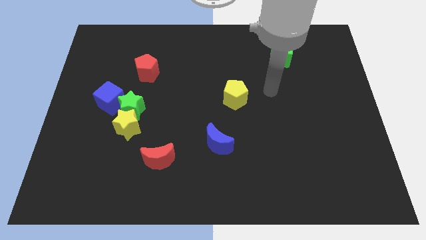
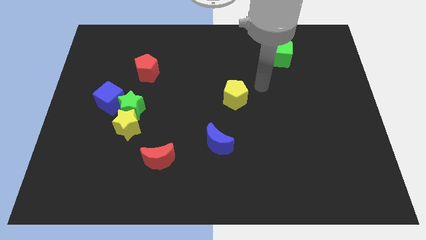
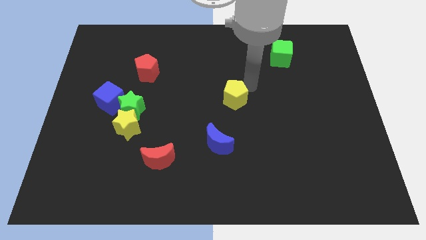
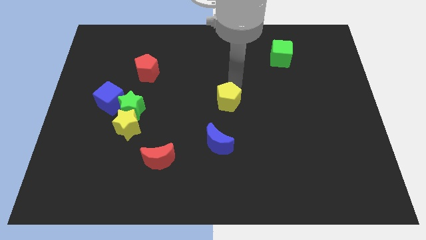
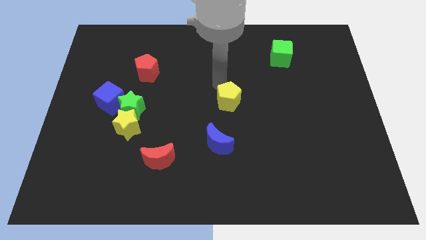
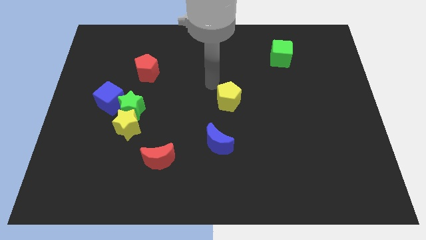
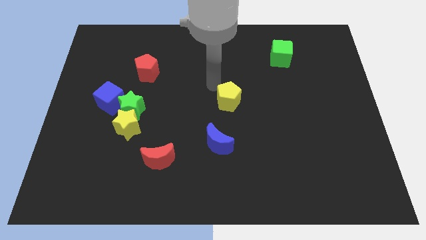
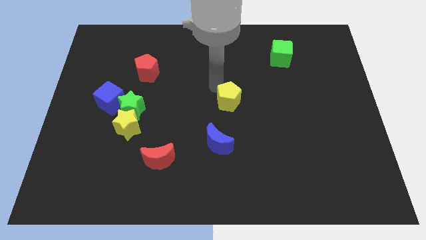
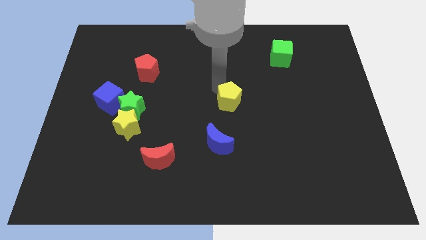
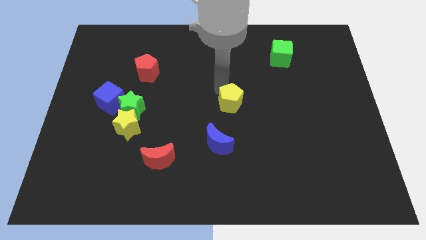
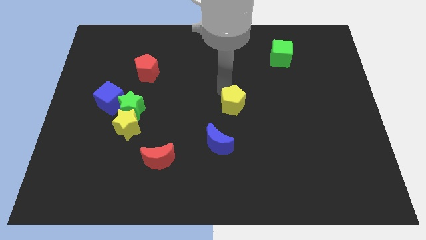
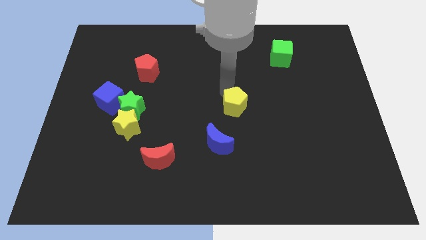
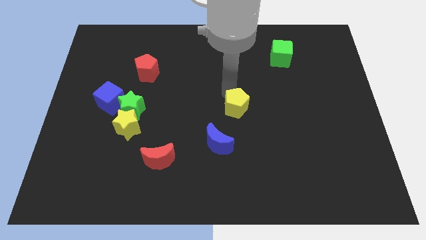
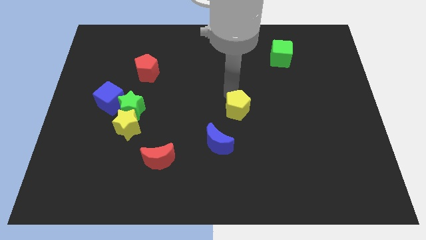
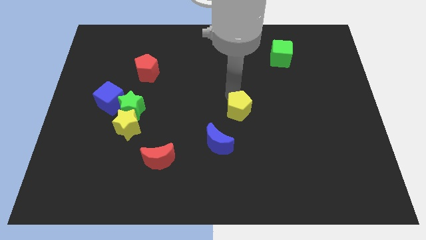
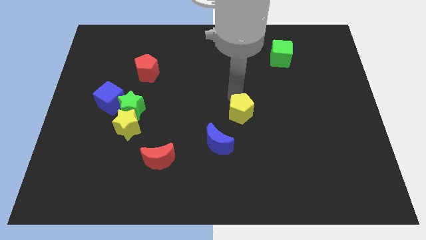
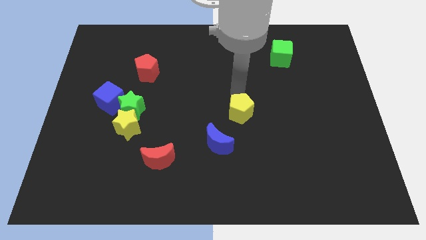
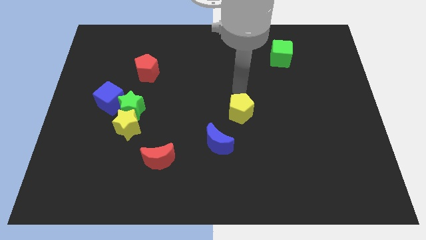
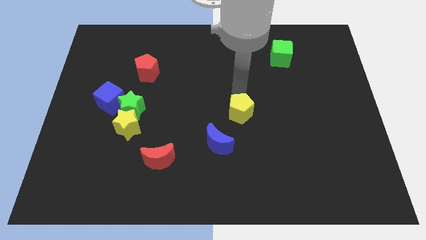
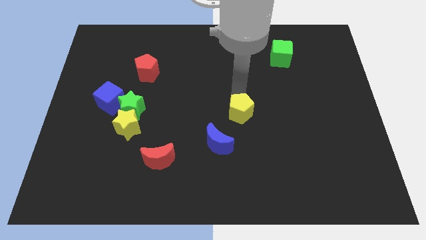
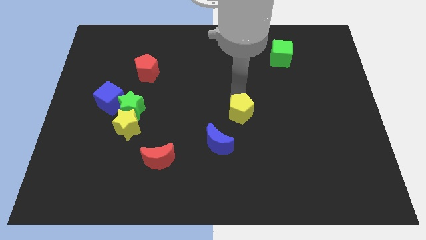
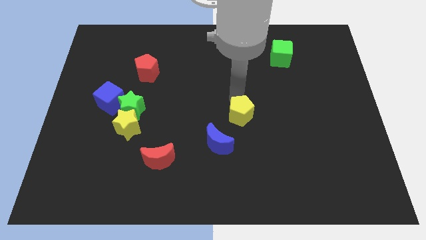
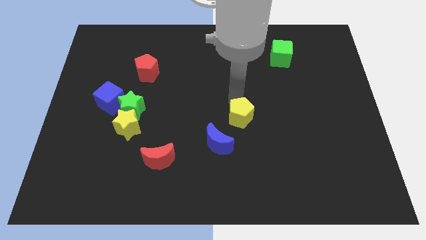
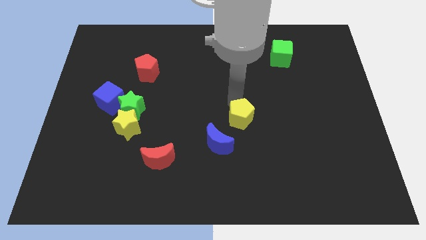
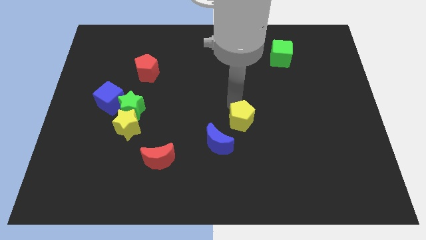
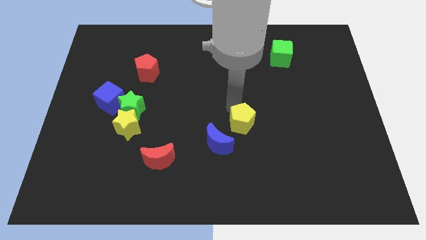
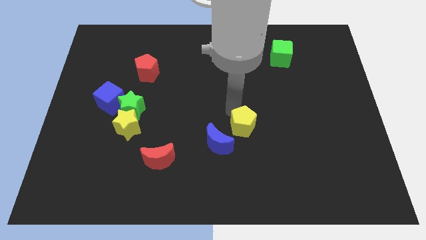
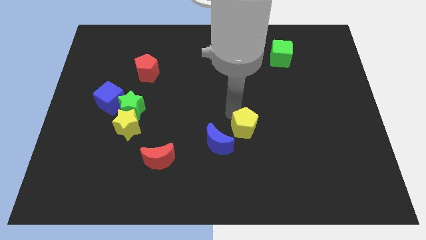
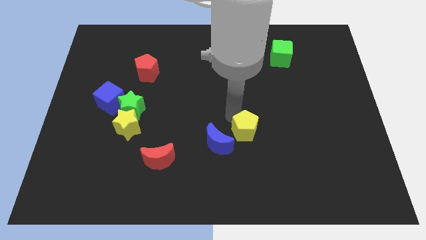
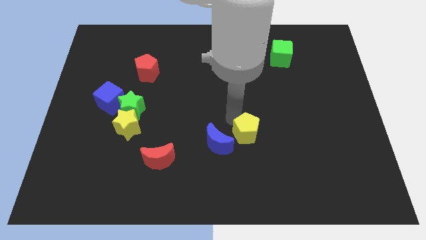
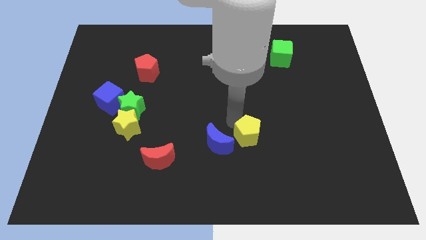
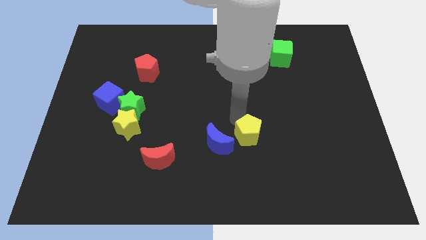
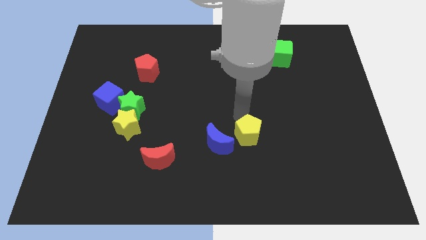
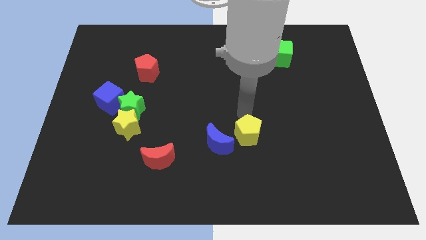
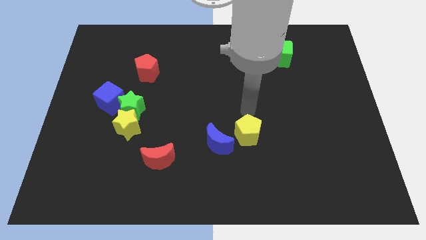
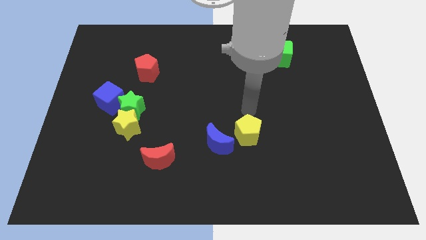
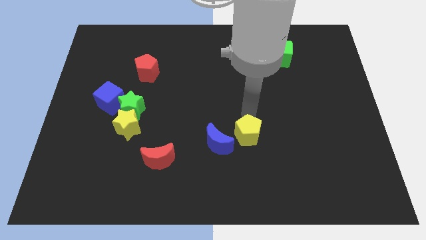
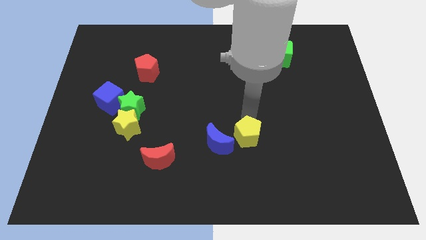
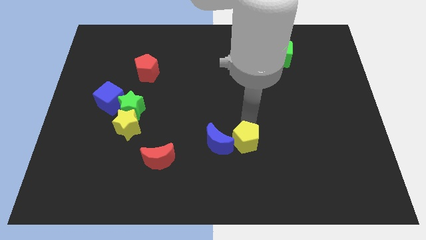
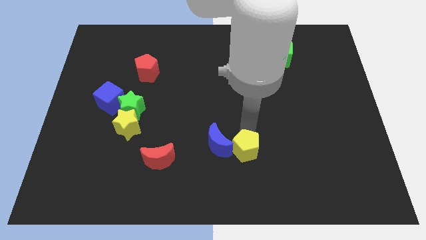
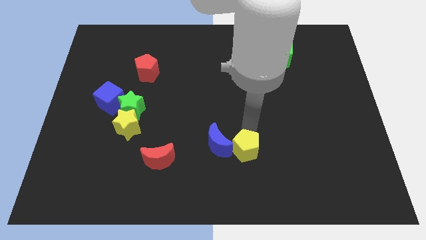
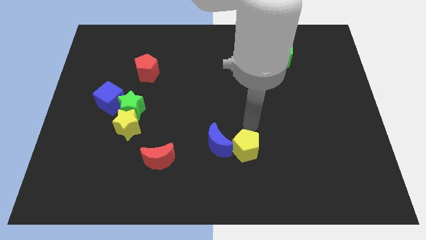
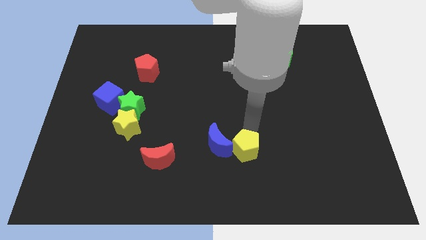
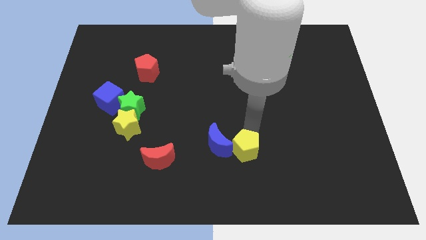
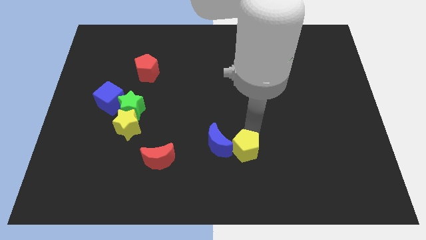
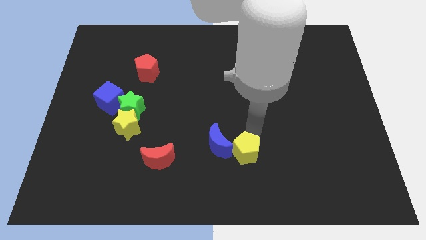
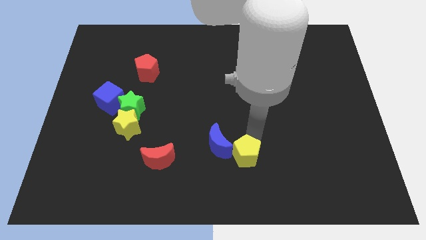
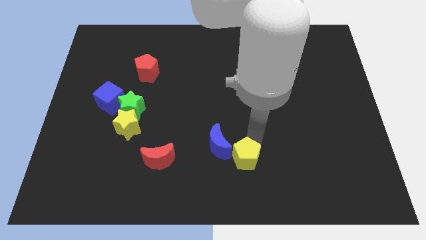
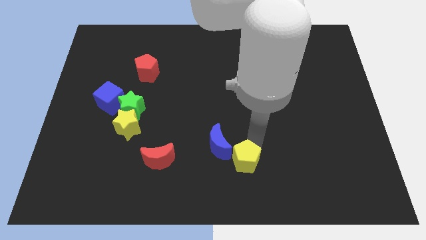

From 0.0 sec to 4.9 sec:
move the yellow pentagon to the bottom

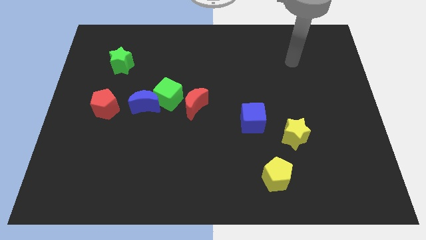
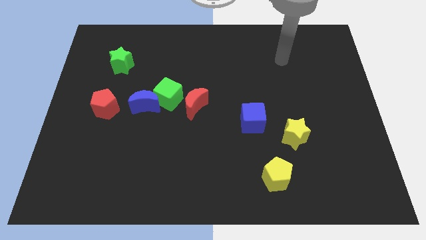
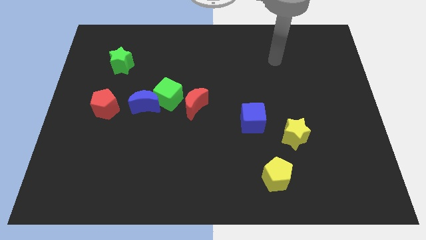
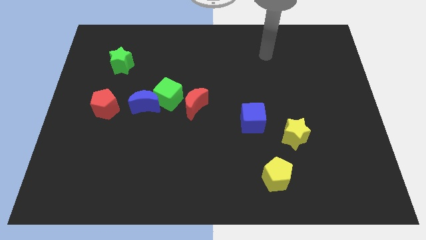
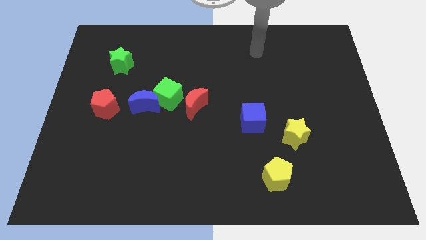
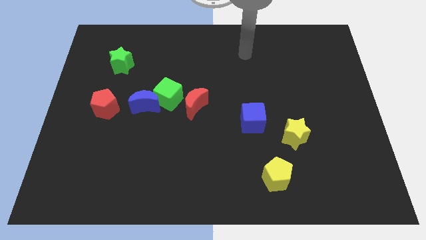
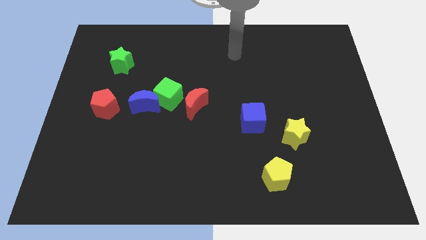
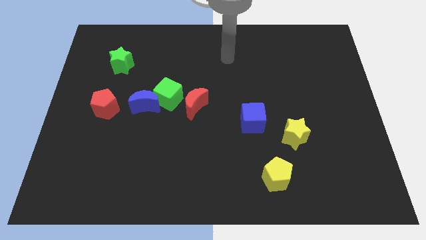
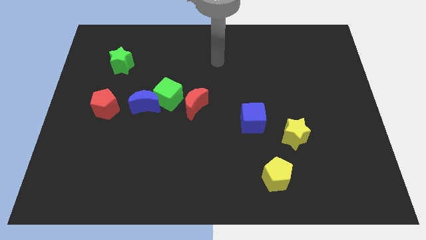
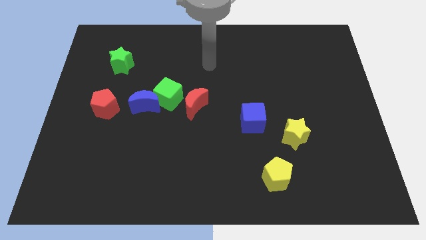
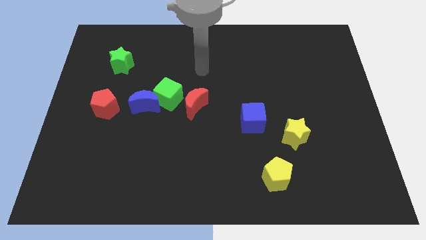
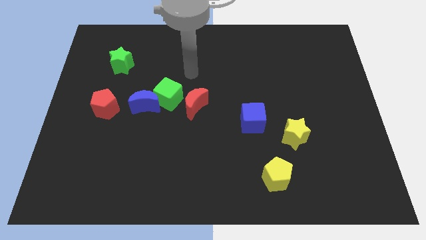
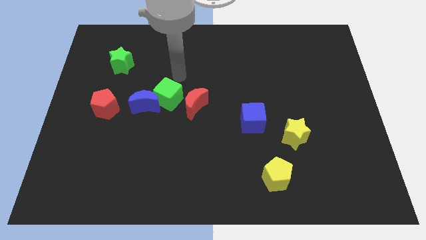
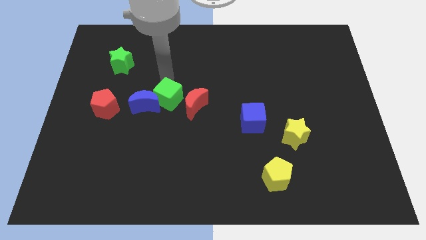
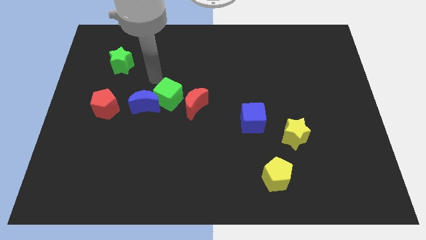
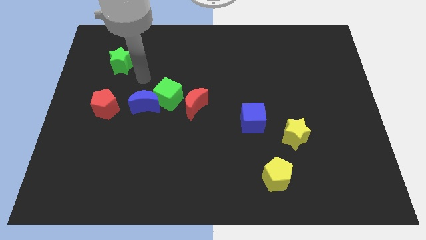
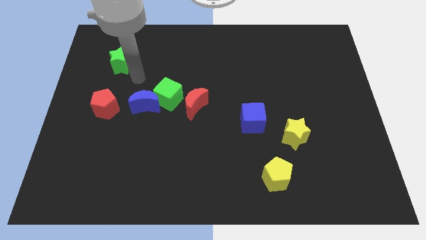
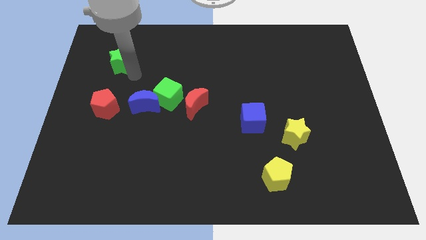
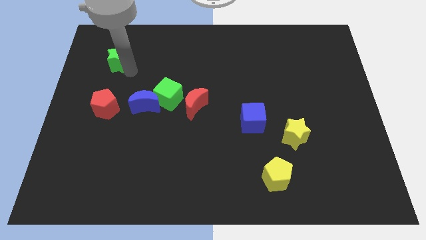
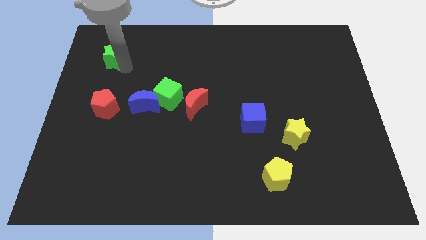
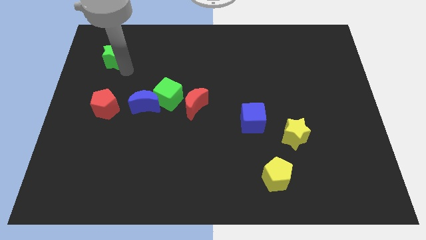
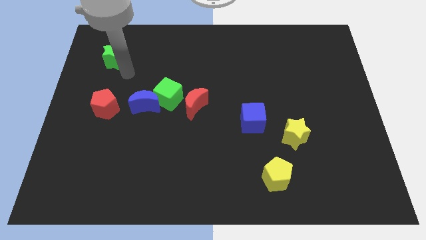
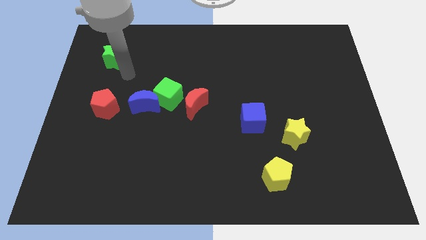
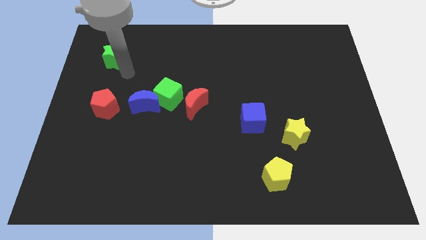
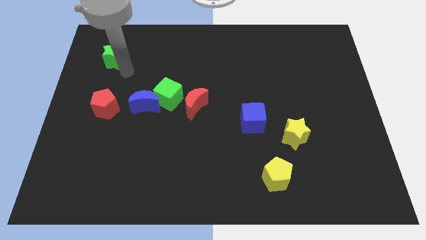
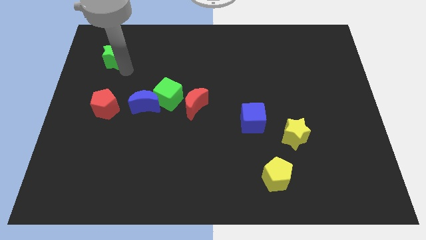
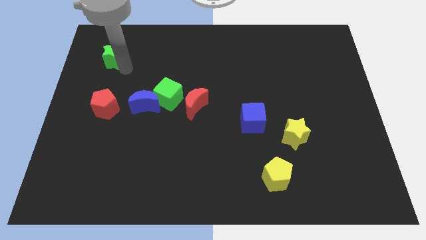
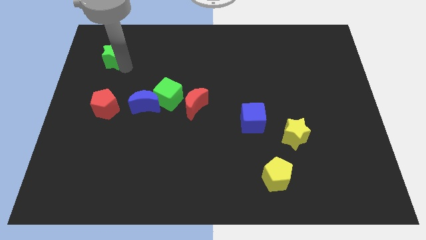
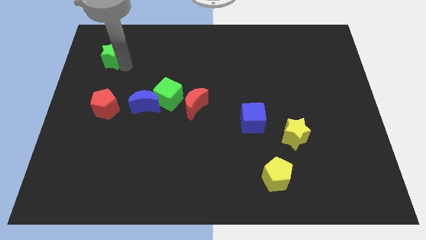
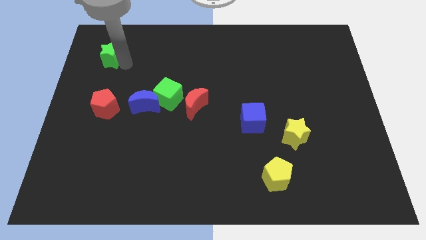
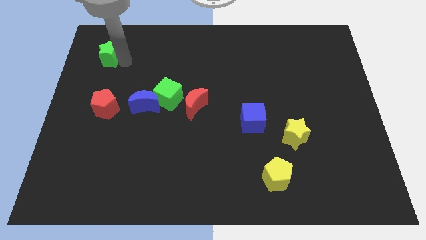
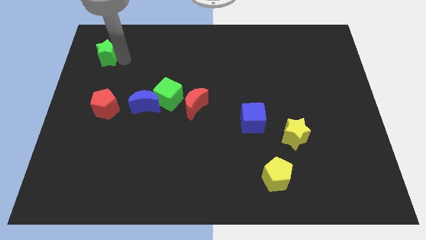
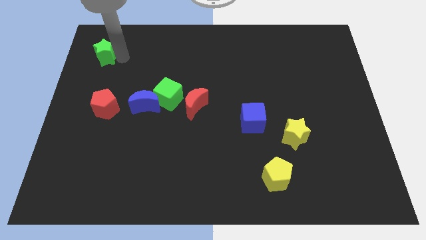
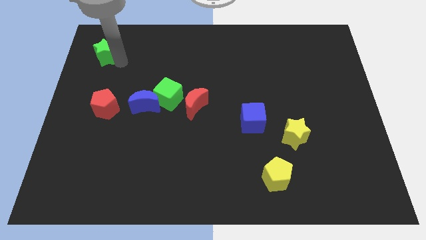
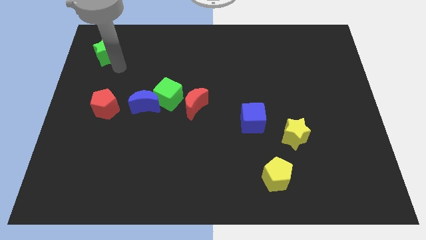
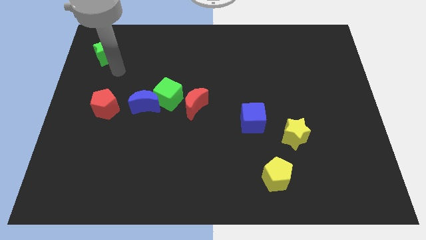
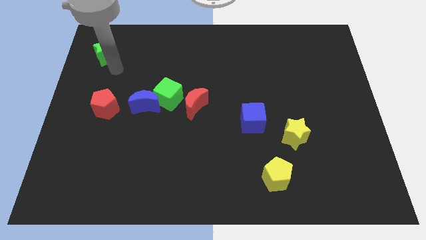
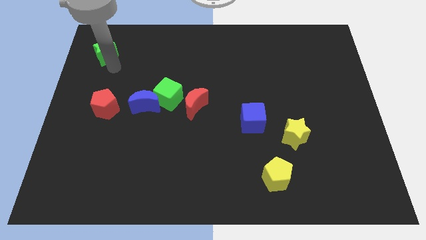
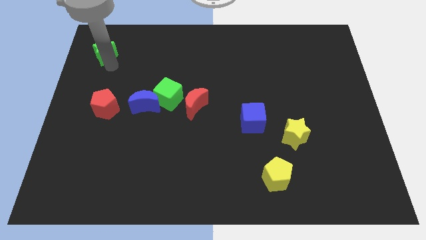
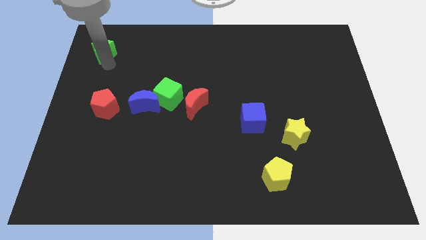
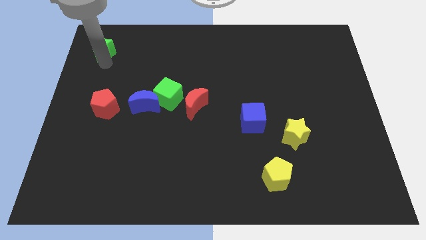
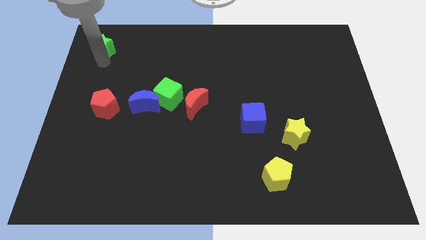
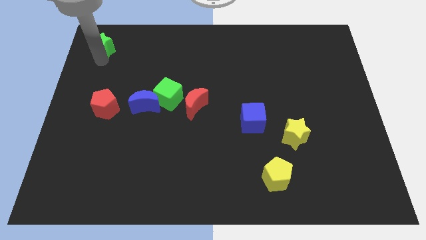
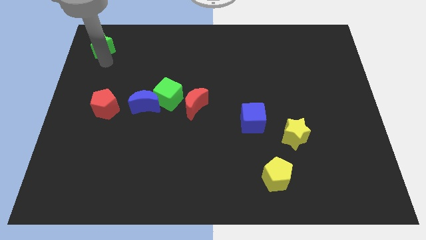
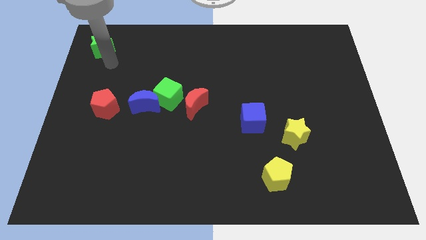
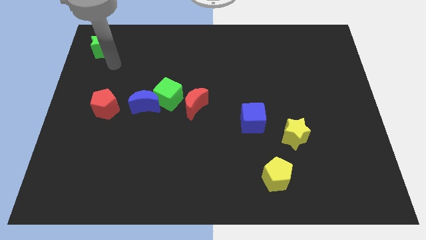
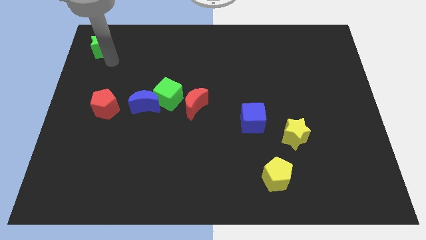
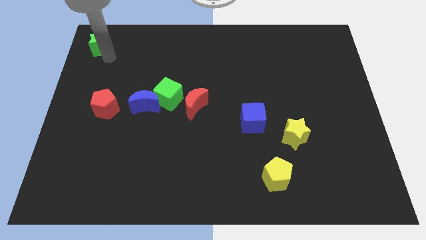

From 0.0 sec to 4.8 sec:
push the green star to the top left corner
